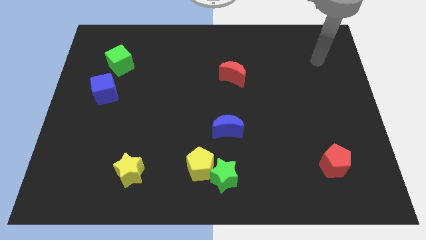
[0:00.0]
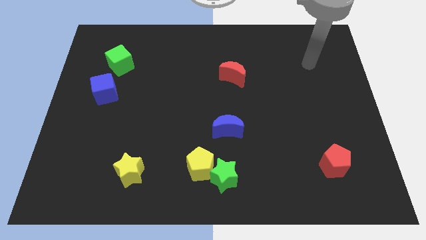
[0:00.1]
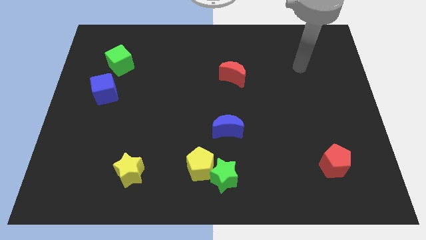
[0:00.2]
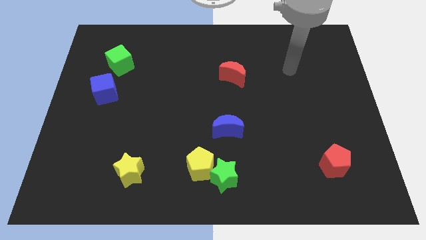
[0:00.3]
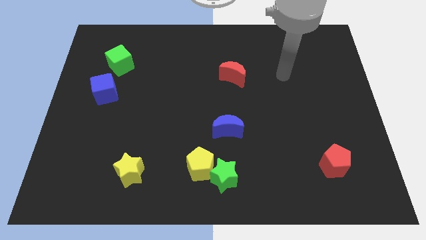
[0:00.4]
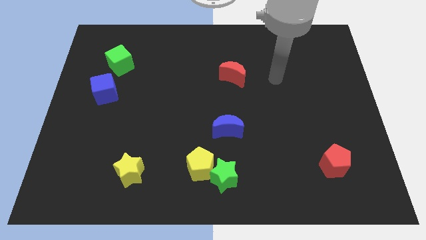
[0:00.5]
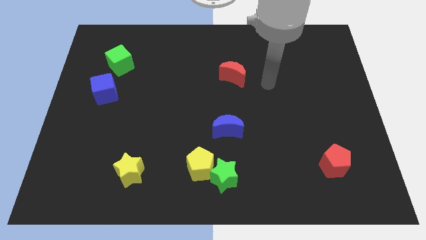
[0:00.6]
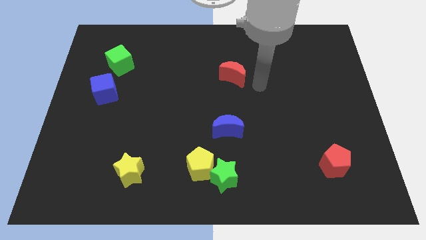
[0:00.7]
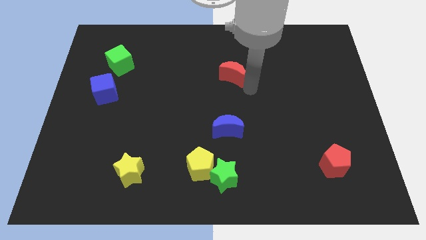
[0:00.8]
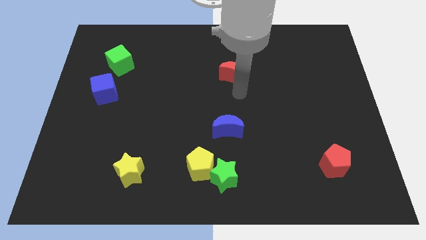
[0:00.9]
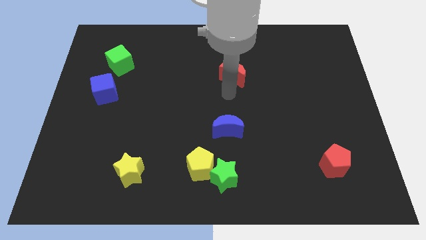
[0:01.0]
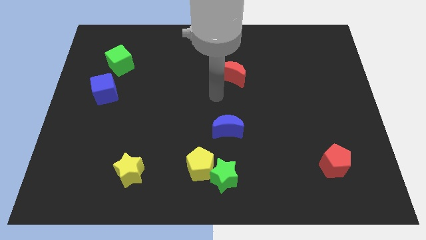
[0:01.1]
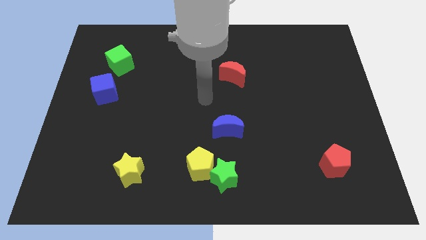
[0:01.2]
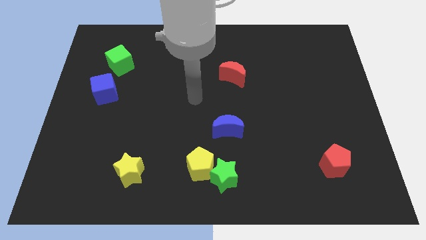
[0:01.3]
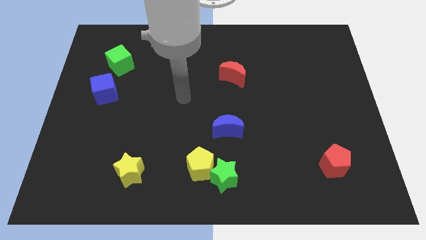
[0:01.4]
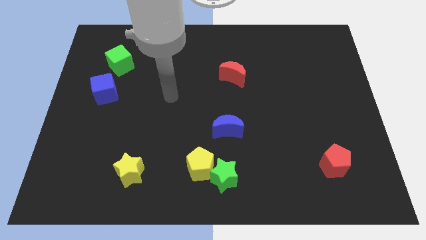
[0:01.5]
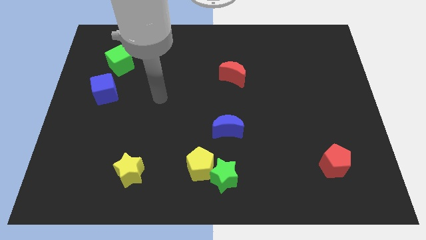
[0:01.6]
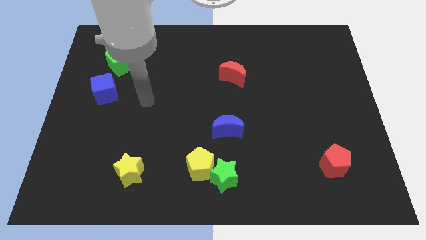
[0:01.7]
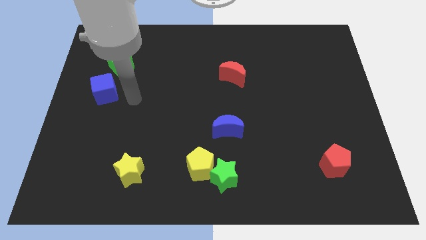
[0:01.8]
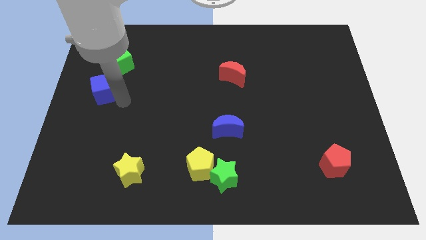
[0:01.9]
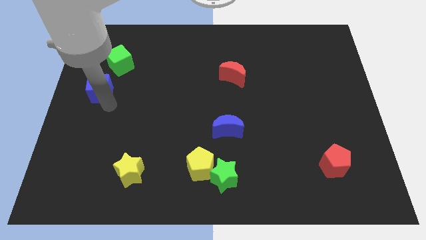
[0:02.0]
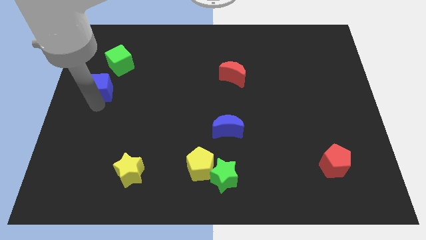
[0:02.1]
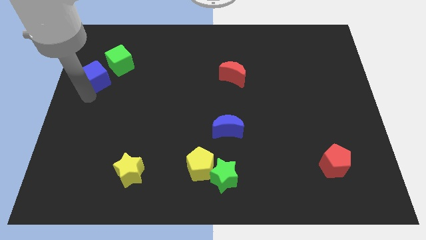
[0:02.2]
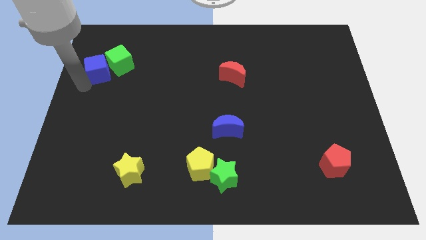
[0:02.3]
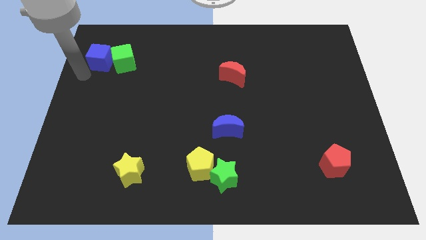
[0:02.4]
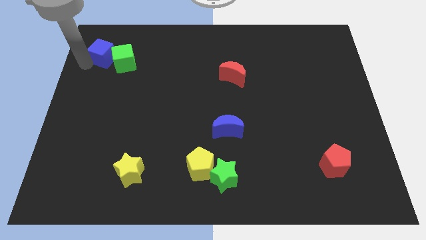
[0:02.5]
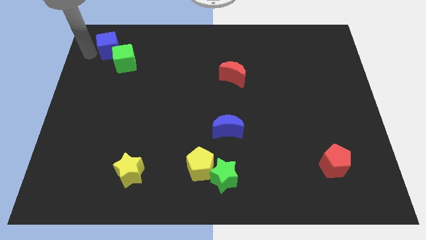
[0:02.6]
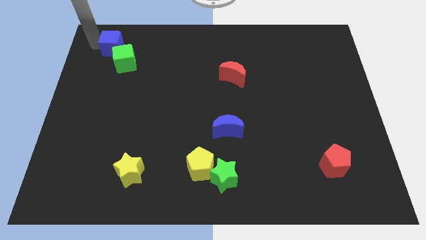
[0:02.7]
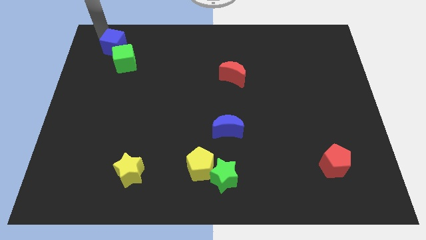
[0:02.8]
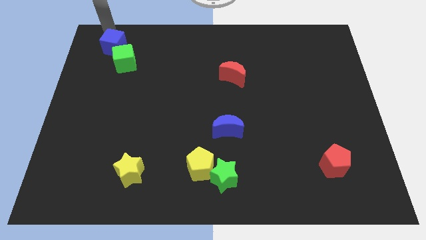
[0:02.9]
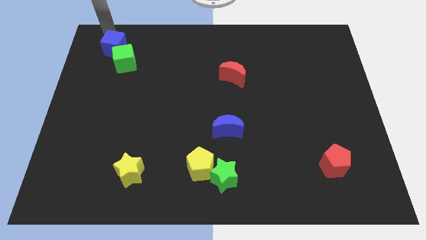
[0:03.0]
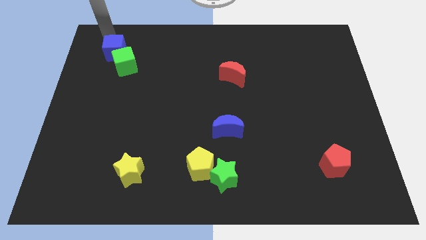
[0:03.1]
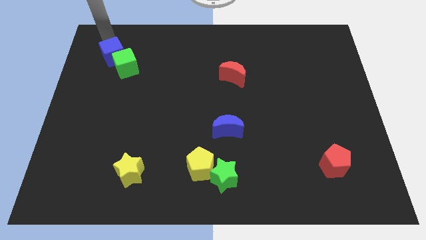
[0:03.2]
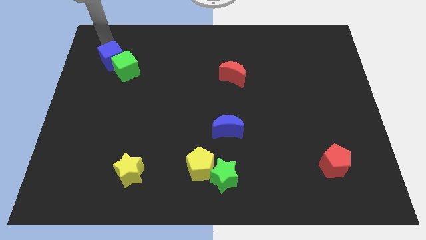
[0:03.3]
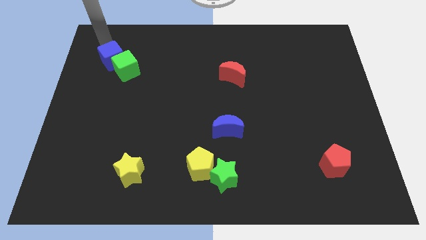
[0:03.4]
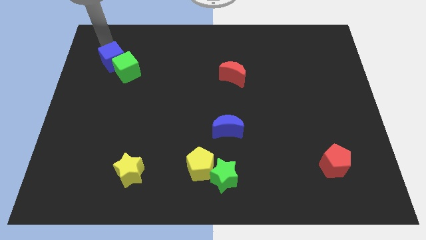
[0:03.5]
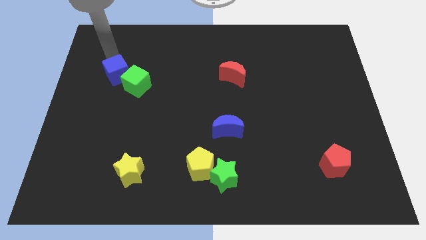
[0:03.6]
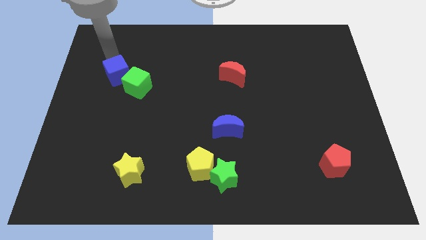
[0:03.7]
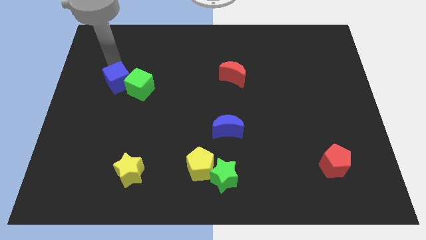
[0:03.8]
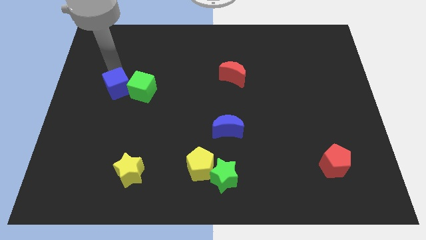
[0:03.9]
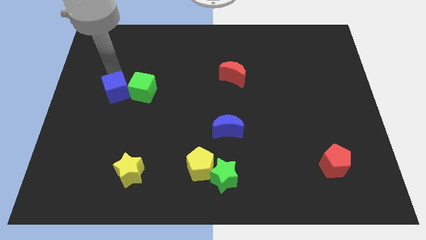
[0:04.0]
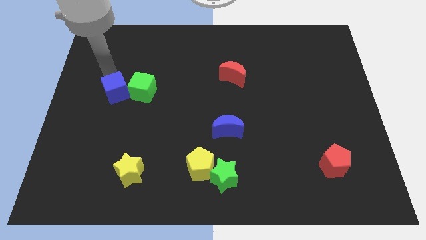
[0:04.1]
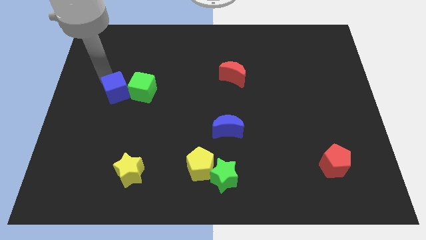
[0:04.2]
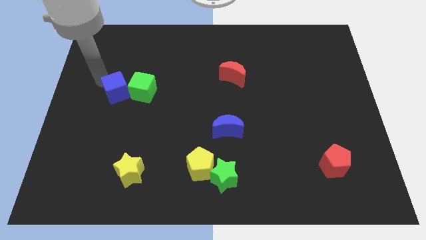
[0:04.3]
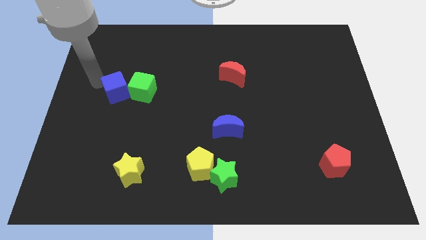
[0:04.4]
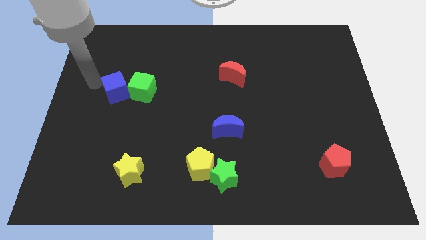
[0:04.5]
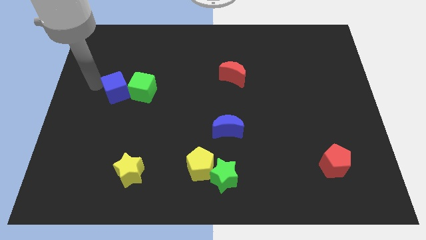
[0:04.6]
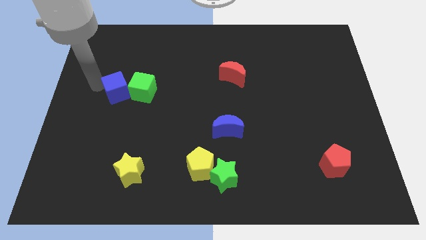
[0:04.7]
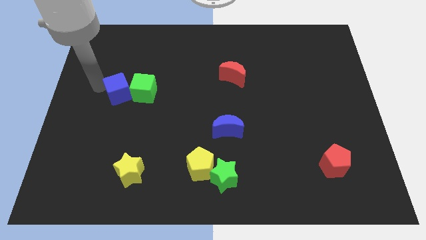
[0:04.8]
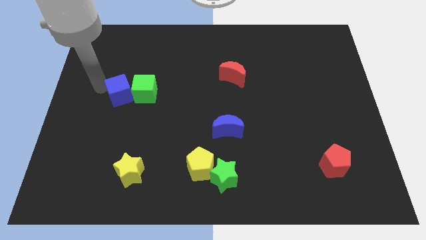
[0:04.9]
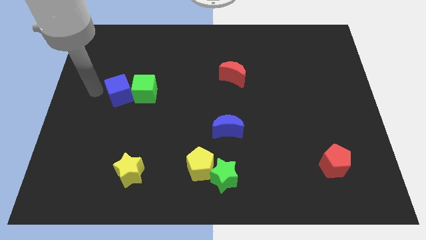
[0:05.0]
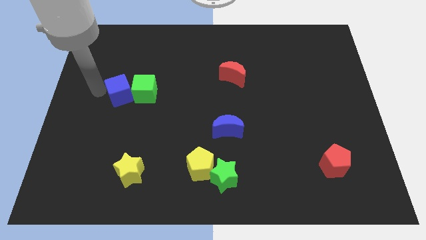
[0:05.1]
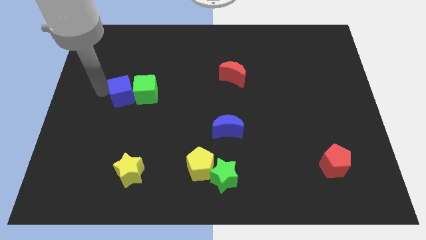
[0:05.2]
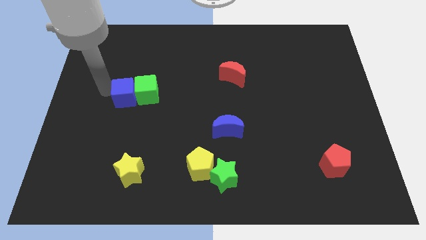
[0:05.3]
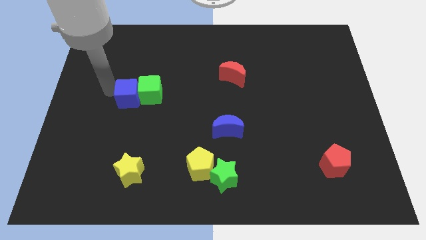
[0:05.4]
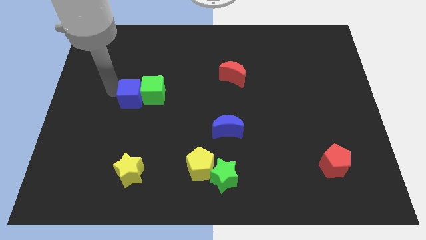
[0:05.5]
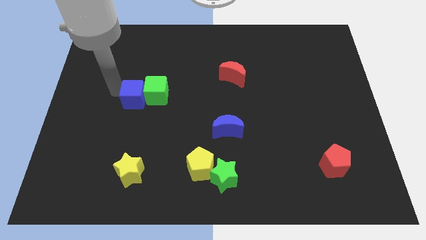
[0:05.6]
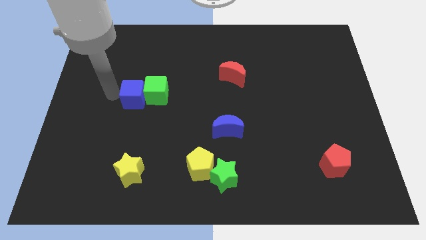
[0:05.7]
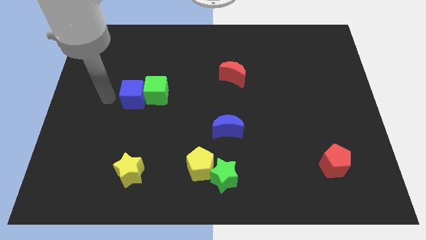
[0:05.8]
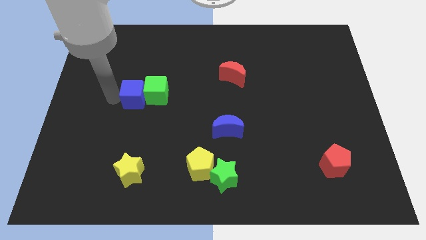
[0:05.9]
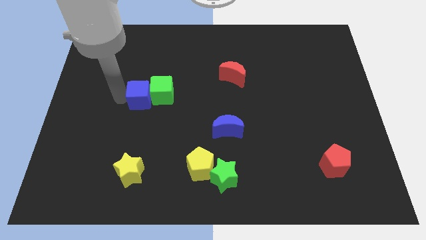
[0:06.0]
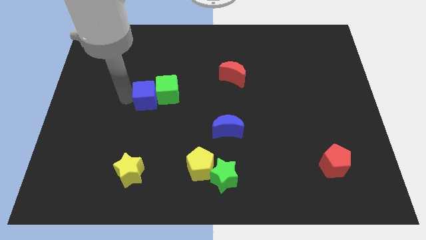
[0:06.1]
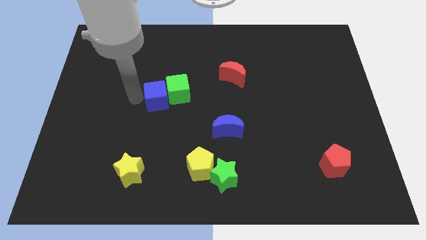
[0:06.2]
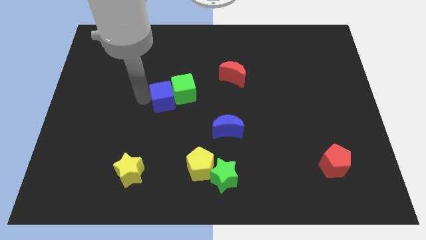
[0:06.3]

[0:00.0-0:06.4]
move the blue cube to the center of the board
